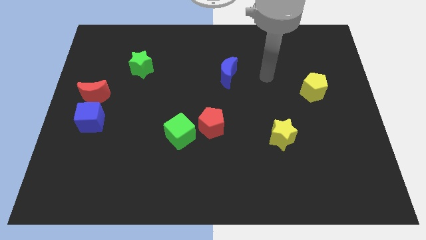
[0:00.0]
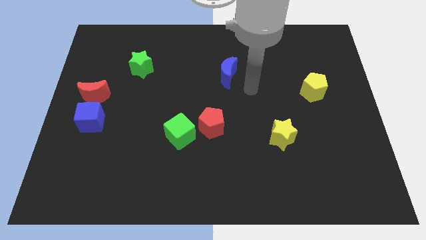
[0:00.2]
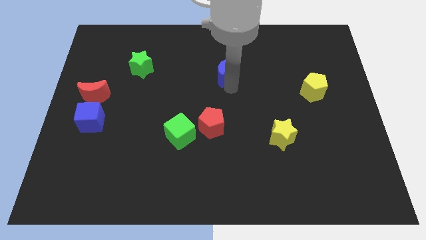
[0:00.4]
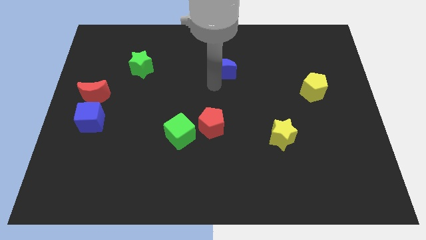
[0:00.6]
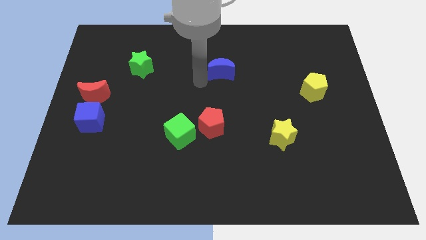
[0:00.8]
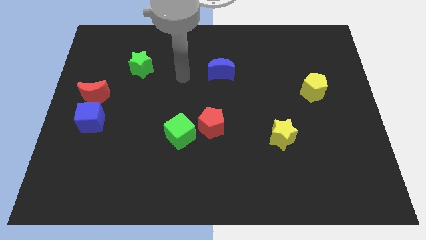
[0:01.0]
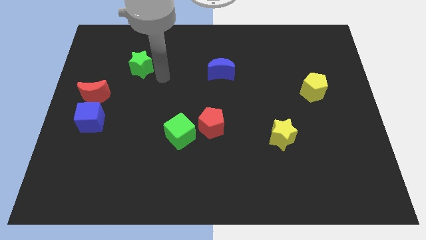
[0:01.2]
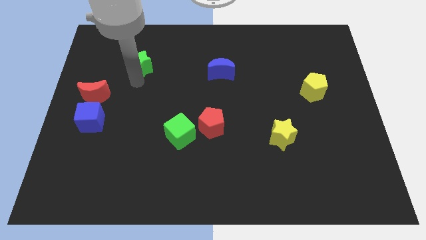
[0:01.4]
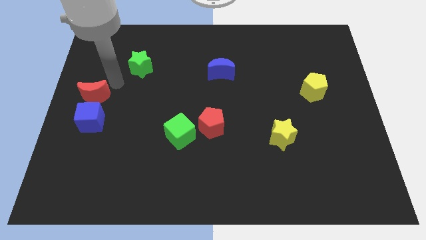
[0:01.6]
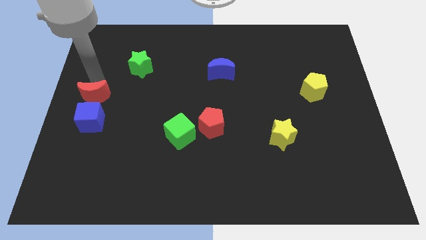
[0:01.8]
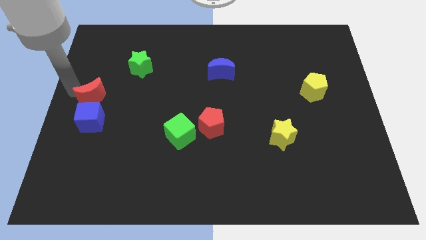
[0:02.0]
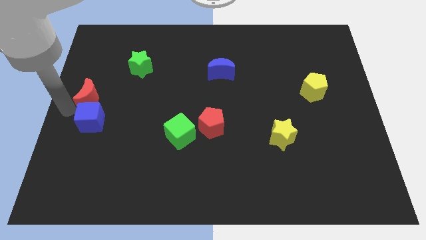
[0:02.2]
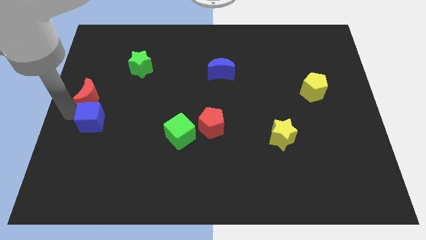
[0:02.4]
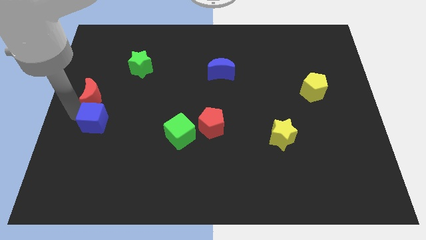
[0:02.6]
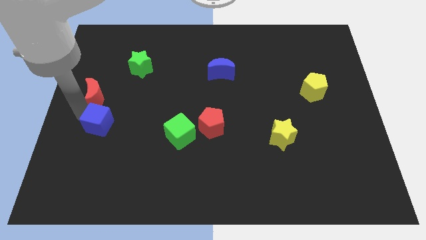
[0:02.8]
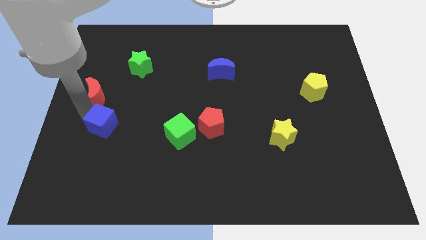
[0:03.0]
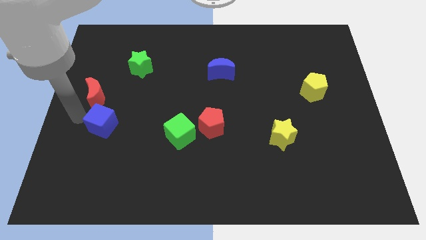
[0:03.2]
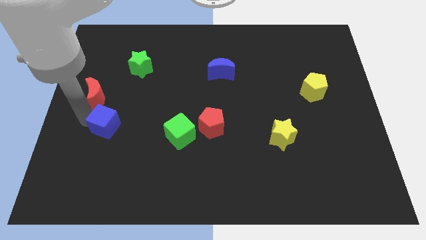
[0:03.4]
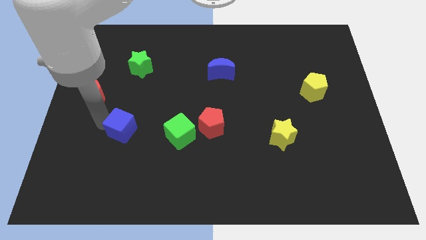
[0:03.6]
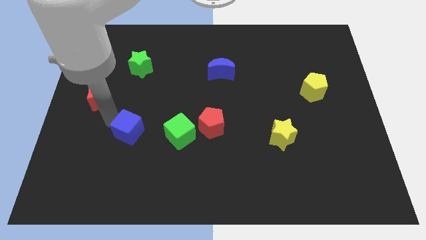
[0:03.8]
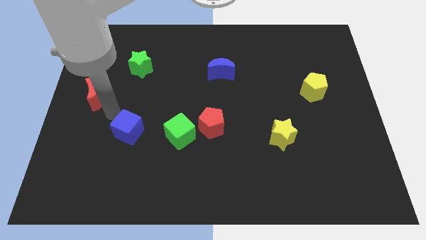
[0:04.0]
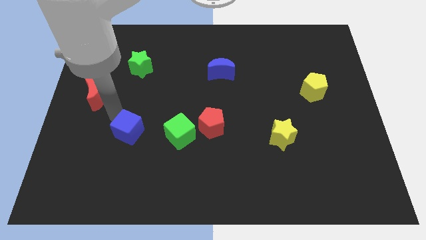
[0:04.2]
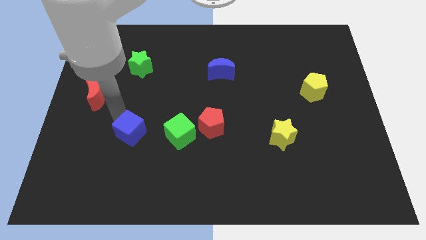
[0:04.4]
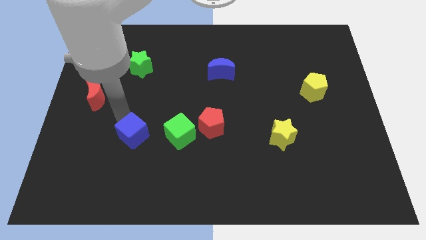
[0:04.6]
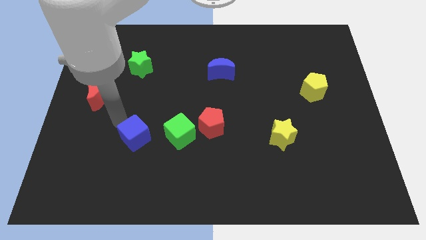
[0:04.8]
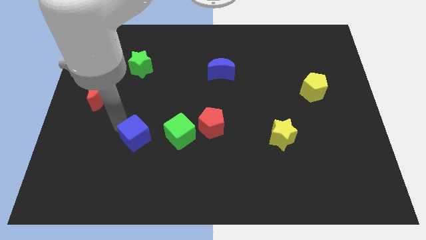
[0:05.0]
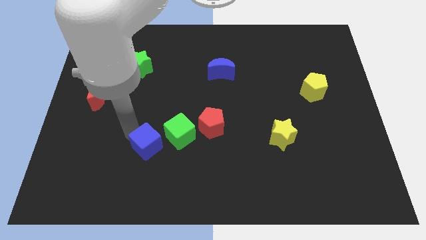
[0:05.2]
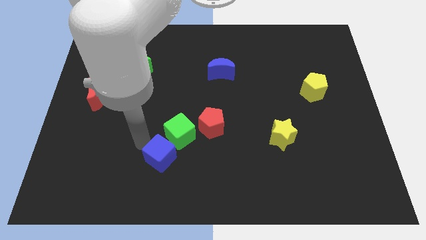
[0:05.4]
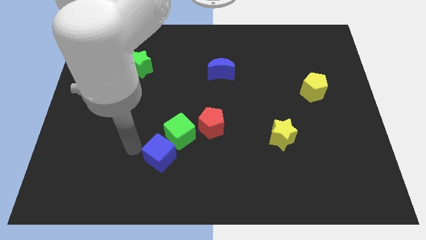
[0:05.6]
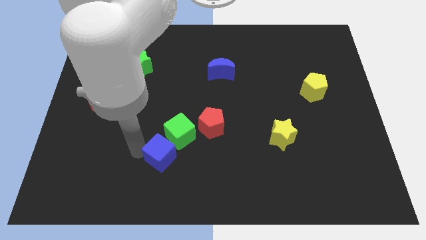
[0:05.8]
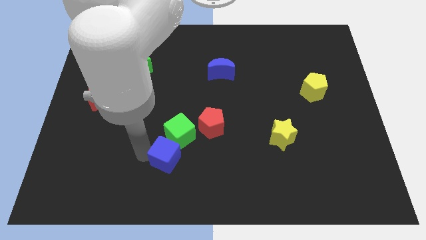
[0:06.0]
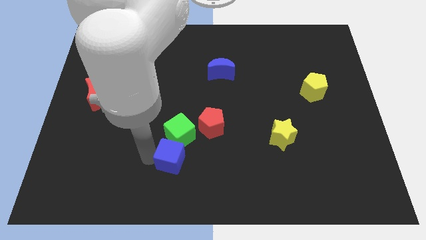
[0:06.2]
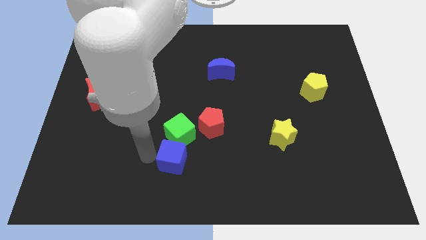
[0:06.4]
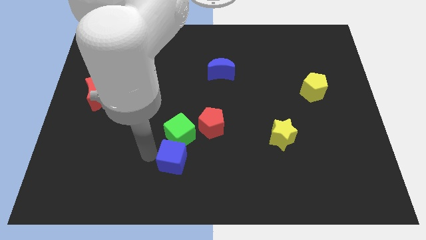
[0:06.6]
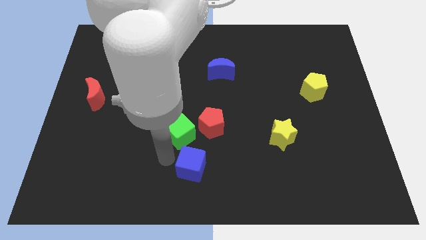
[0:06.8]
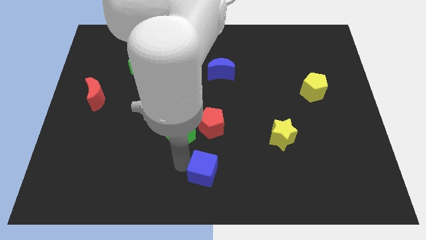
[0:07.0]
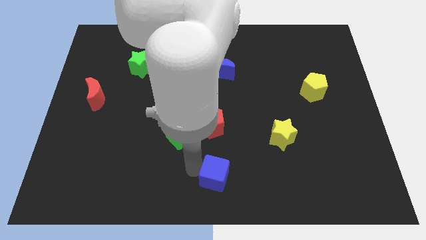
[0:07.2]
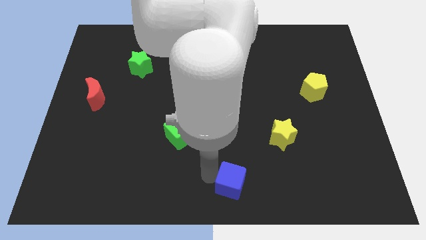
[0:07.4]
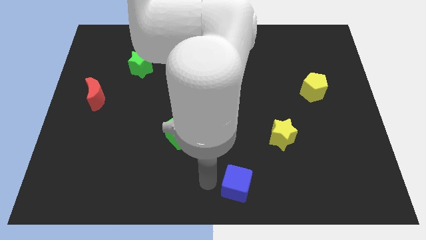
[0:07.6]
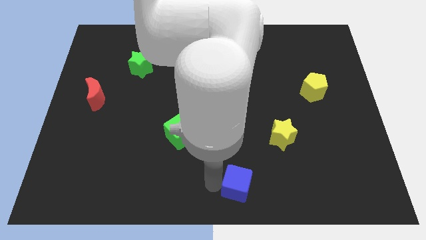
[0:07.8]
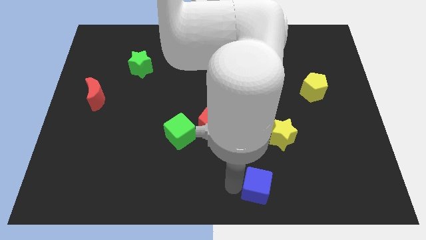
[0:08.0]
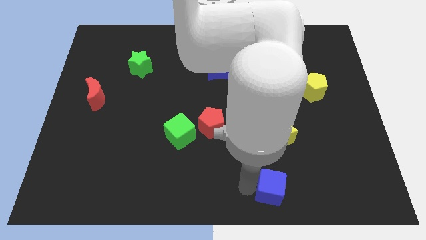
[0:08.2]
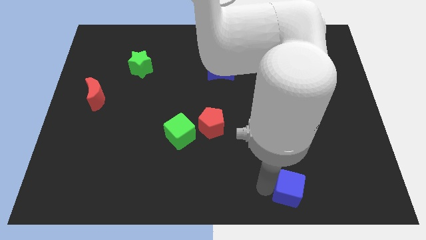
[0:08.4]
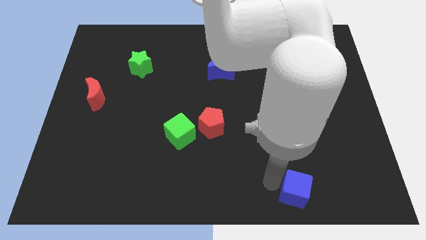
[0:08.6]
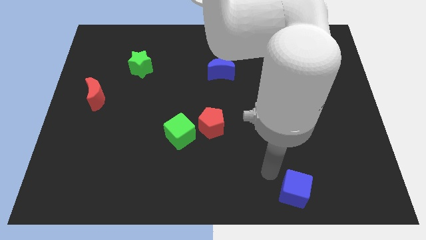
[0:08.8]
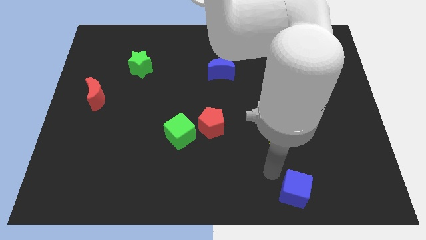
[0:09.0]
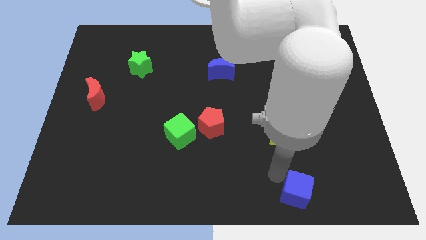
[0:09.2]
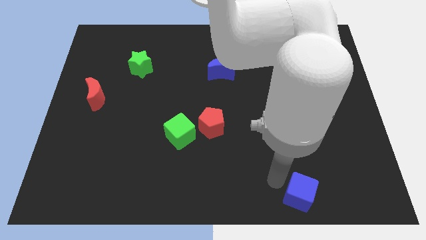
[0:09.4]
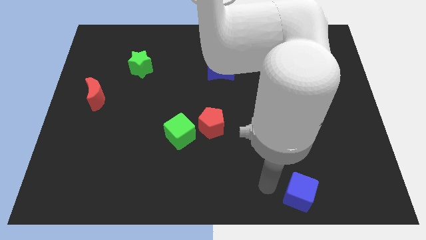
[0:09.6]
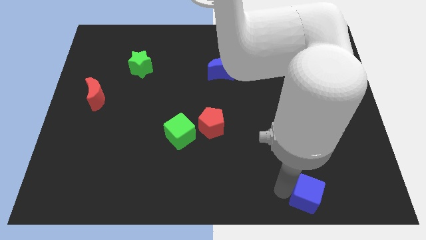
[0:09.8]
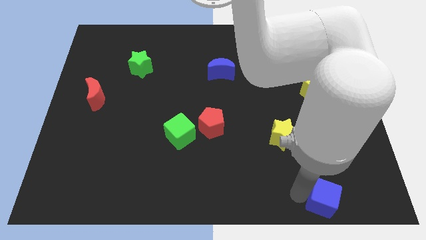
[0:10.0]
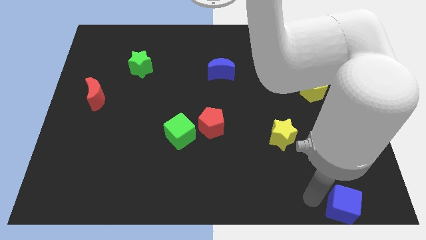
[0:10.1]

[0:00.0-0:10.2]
put the blue cube to the bottom right corner

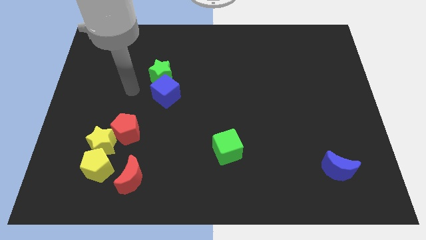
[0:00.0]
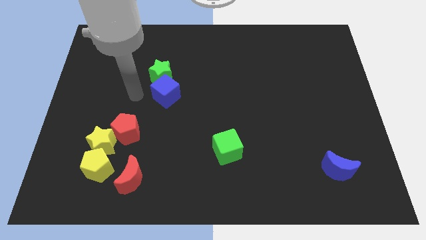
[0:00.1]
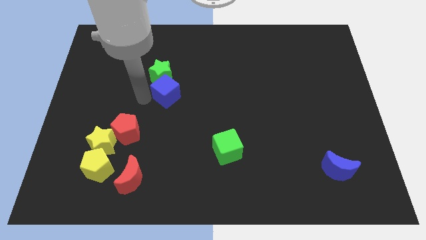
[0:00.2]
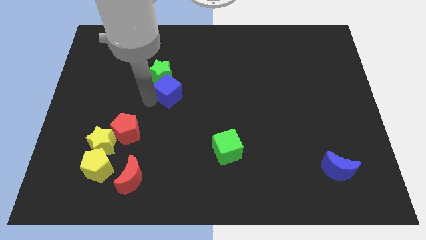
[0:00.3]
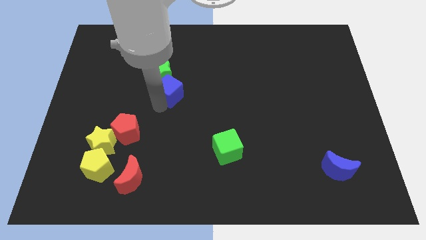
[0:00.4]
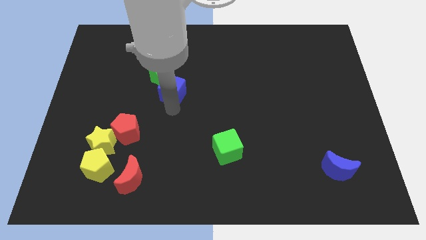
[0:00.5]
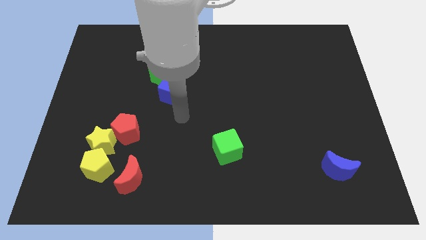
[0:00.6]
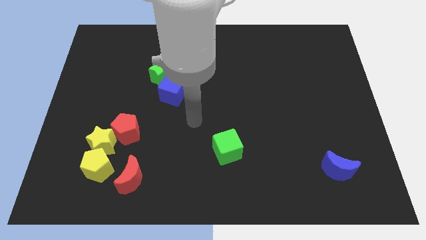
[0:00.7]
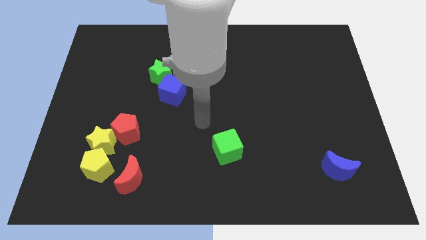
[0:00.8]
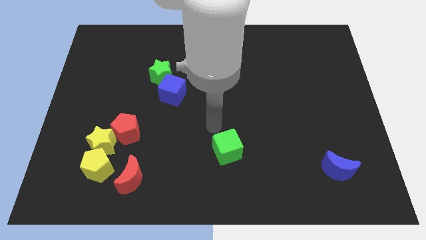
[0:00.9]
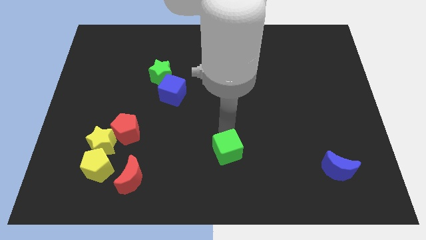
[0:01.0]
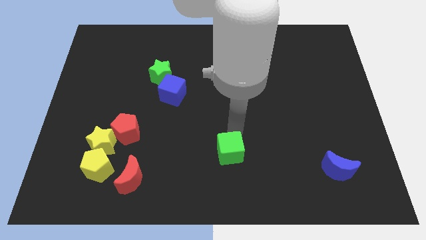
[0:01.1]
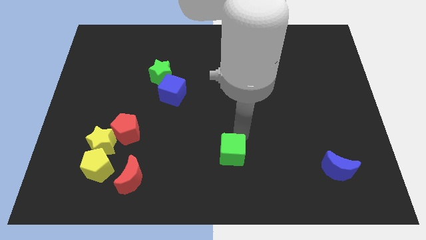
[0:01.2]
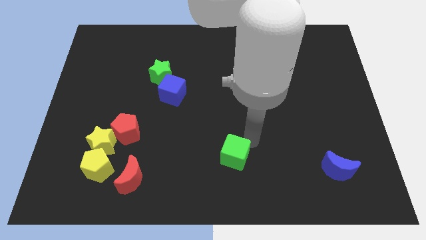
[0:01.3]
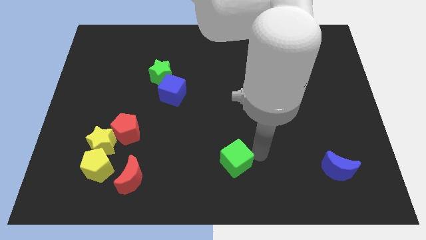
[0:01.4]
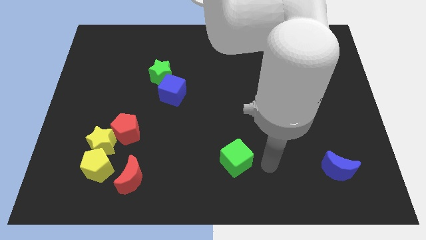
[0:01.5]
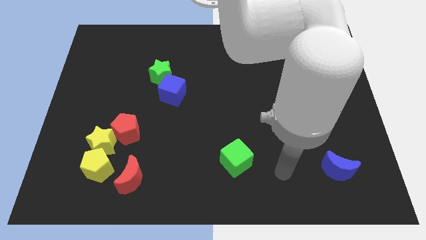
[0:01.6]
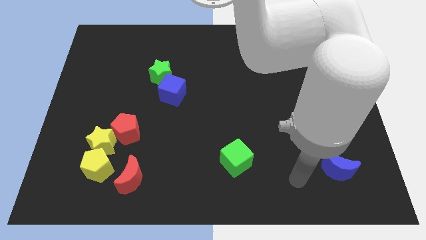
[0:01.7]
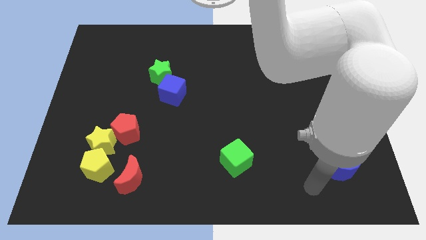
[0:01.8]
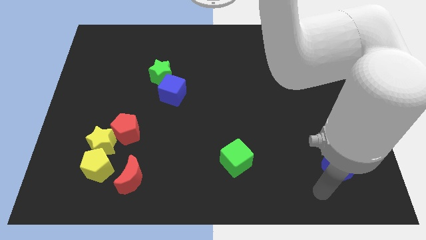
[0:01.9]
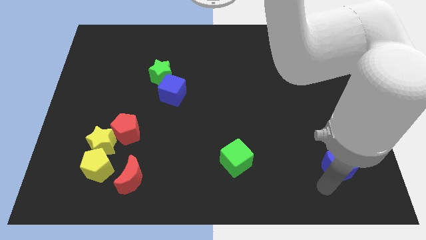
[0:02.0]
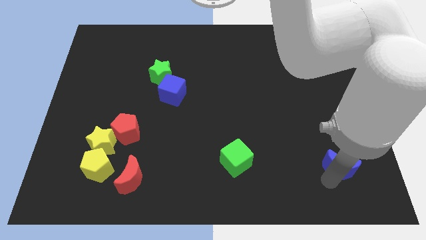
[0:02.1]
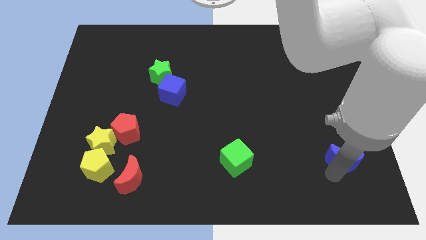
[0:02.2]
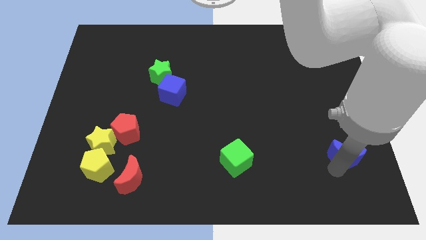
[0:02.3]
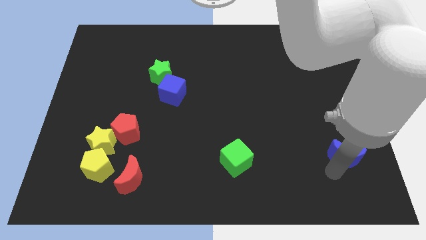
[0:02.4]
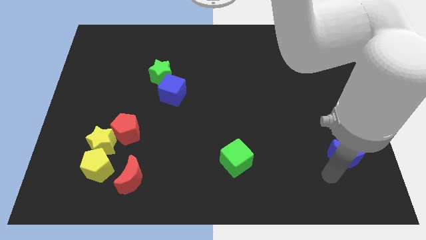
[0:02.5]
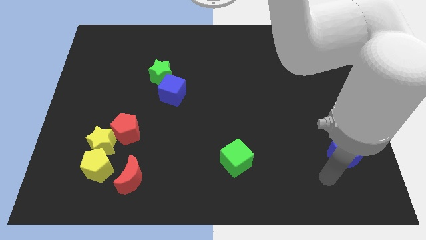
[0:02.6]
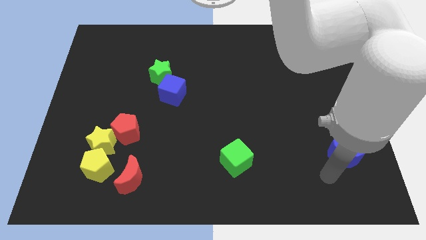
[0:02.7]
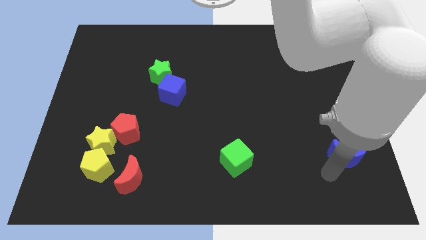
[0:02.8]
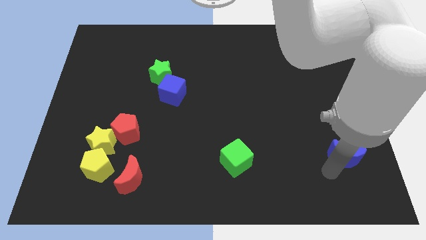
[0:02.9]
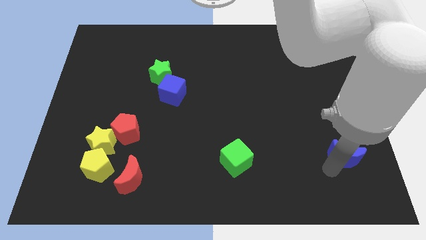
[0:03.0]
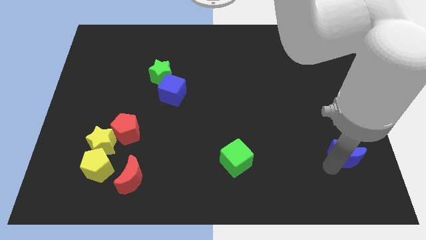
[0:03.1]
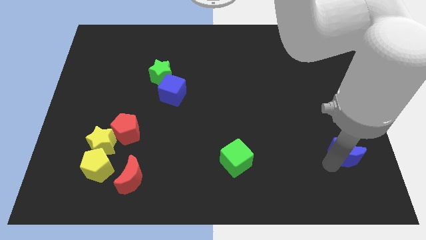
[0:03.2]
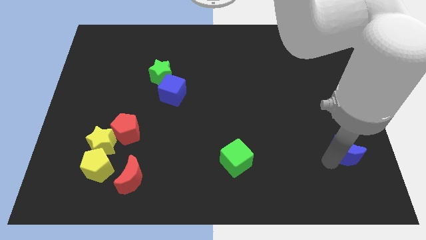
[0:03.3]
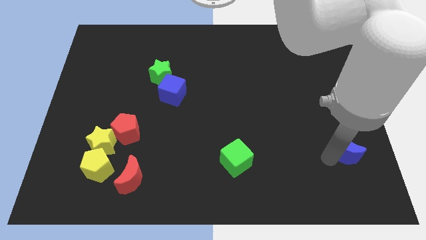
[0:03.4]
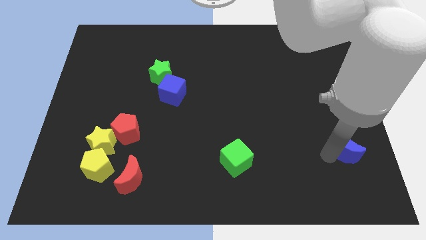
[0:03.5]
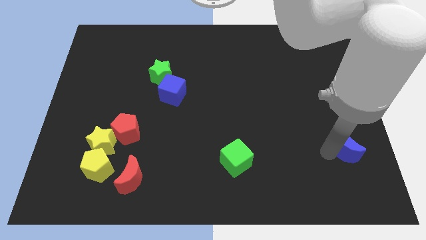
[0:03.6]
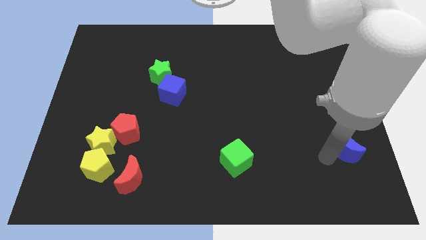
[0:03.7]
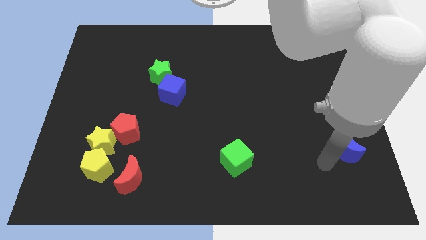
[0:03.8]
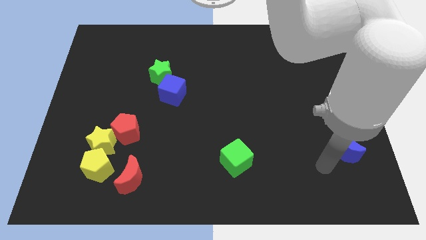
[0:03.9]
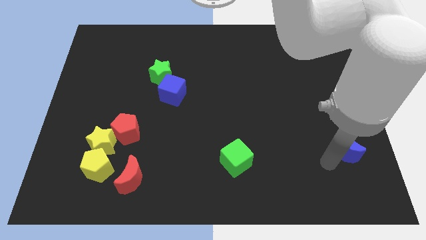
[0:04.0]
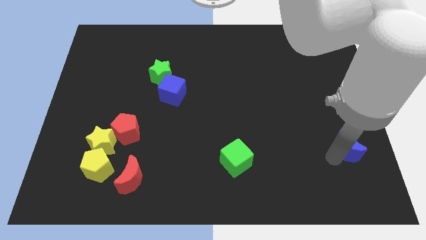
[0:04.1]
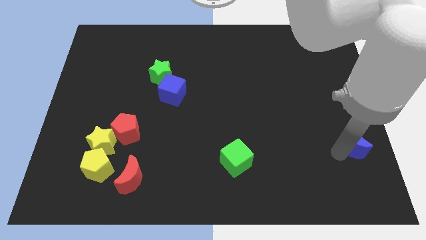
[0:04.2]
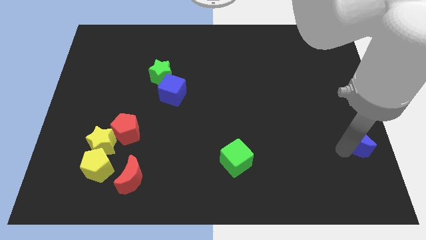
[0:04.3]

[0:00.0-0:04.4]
put the blue moon to the right side of the board
